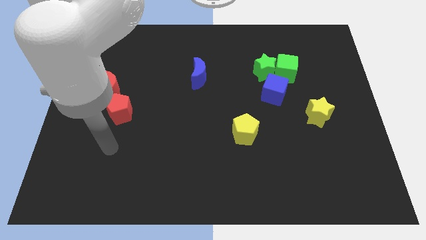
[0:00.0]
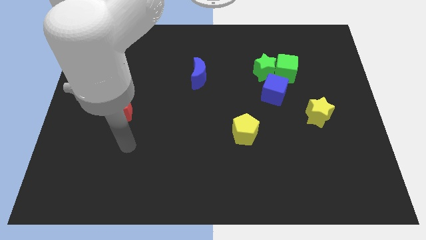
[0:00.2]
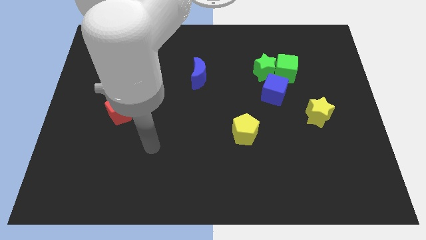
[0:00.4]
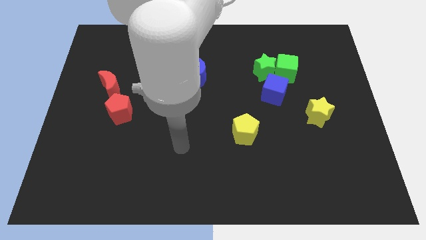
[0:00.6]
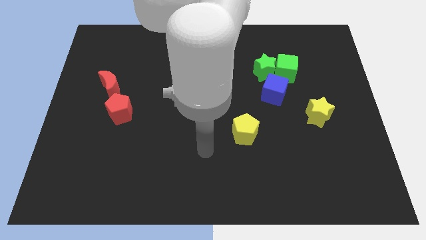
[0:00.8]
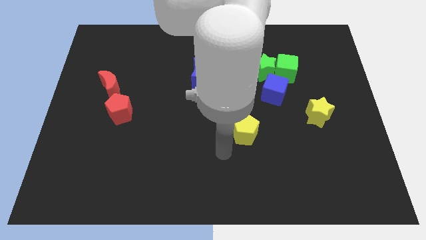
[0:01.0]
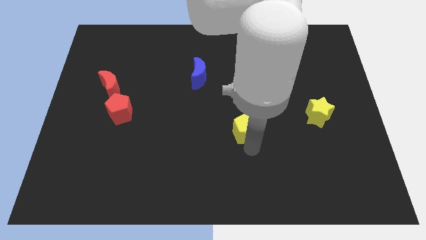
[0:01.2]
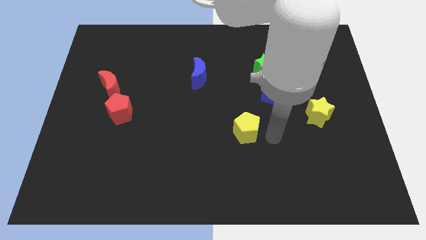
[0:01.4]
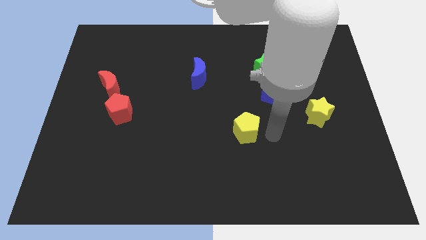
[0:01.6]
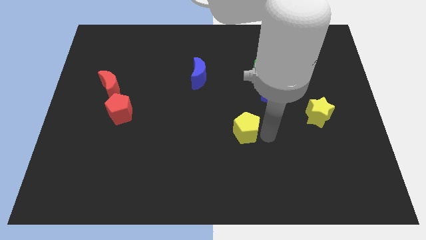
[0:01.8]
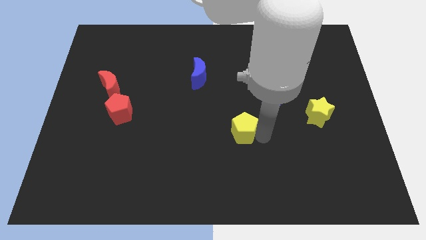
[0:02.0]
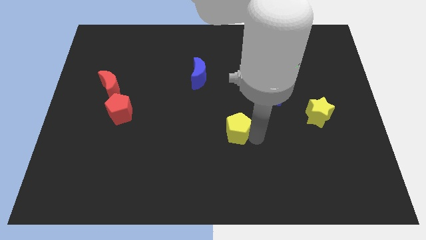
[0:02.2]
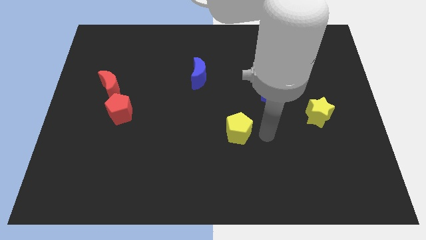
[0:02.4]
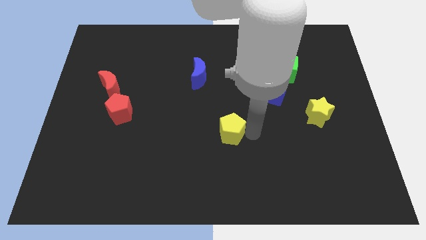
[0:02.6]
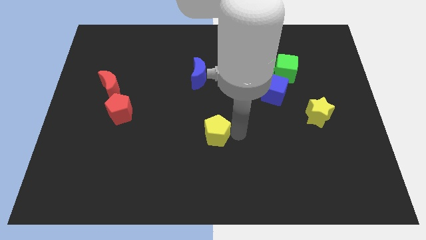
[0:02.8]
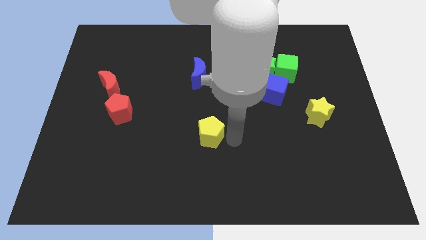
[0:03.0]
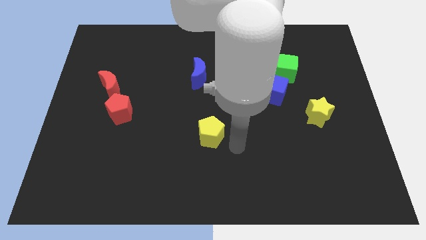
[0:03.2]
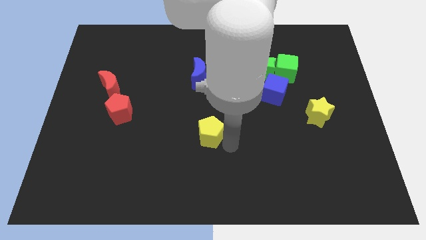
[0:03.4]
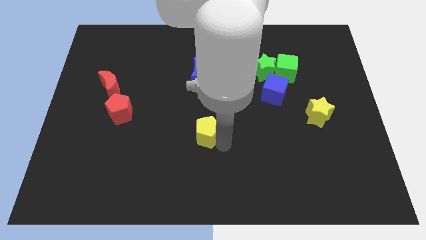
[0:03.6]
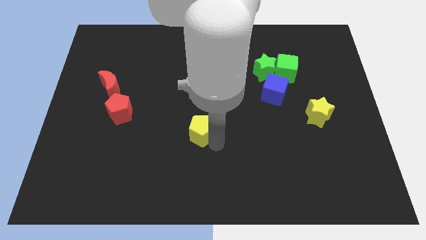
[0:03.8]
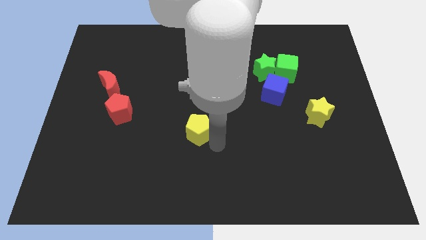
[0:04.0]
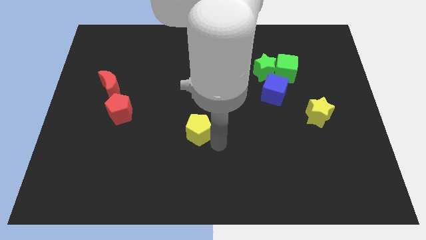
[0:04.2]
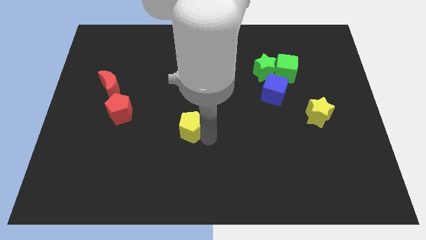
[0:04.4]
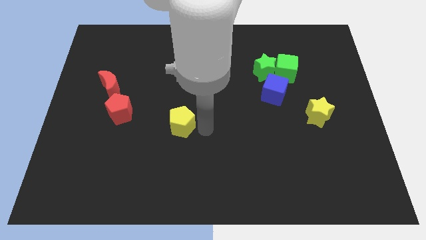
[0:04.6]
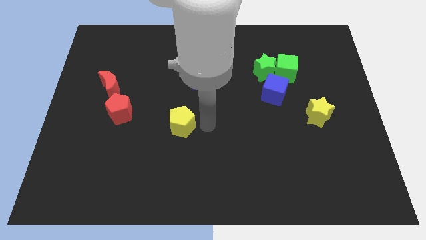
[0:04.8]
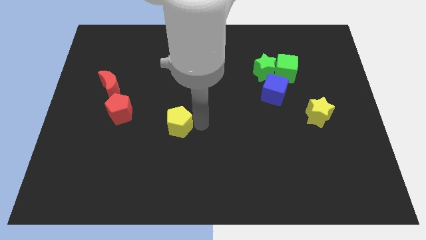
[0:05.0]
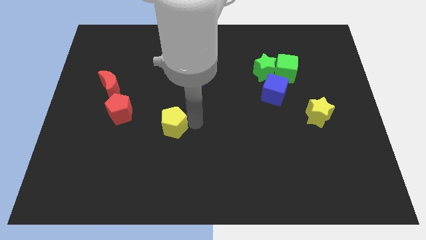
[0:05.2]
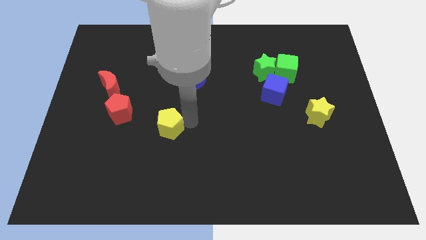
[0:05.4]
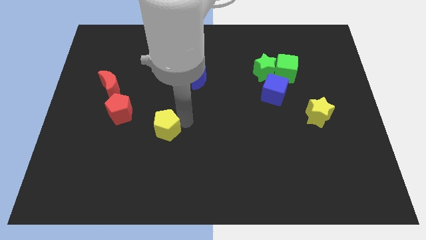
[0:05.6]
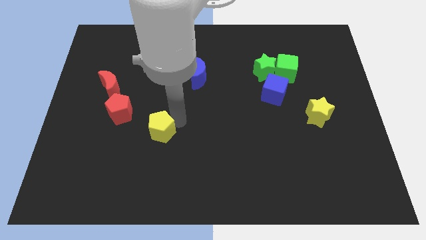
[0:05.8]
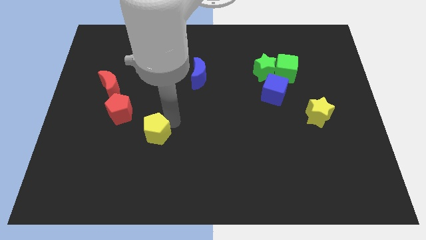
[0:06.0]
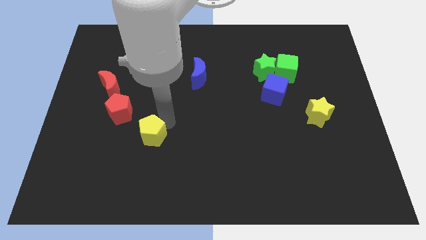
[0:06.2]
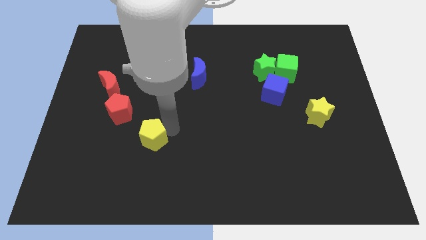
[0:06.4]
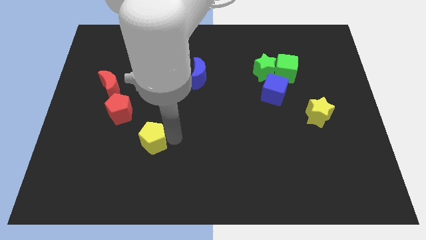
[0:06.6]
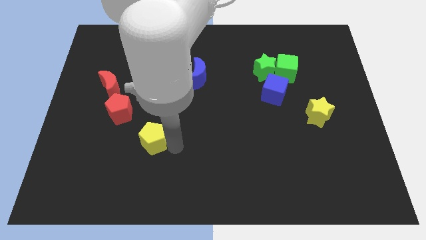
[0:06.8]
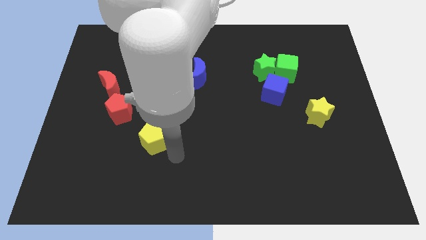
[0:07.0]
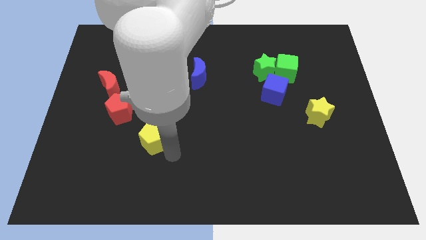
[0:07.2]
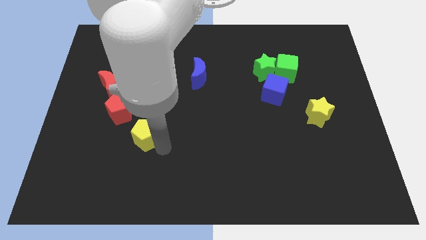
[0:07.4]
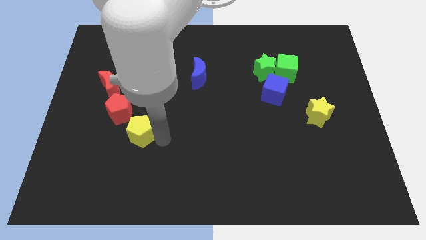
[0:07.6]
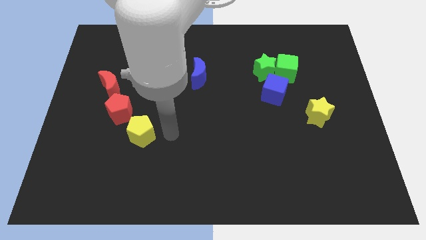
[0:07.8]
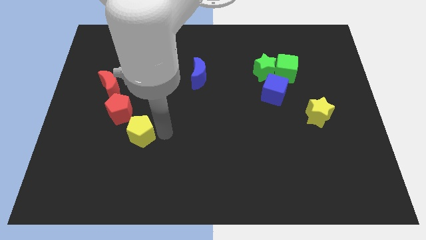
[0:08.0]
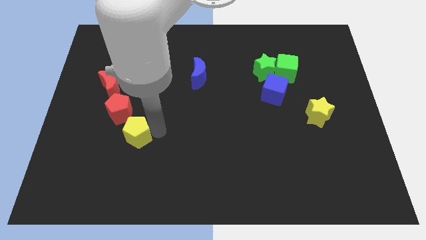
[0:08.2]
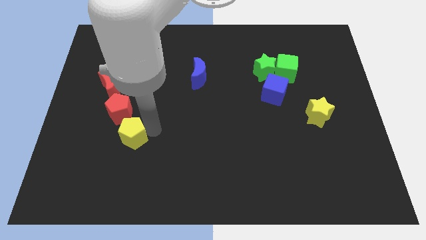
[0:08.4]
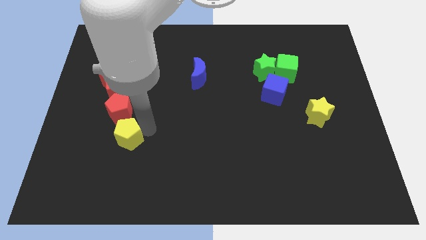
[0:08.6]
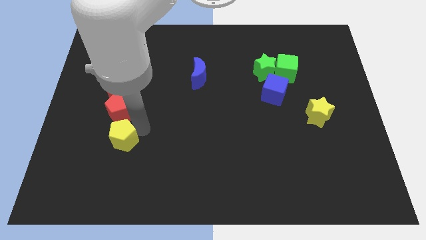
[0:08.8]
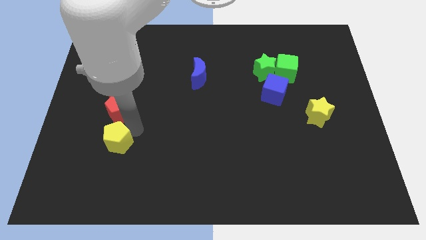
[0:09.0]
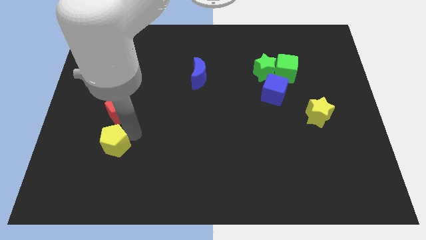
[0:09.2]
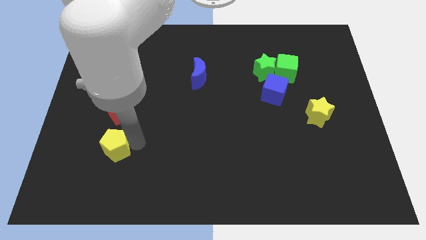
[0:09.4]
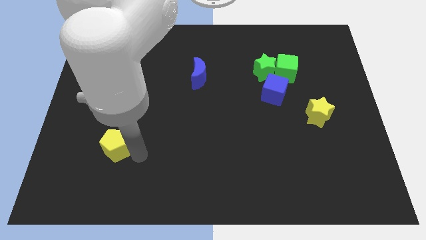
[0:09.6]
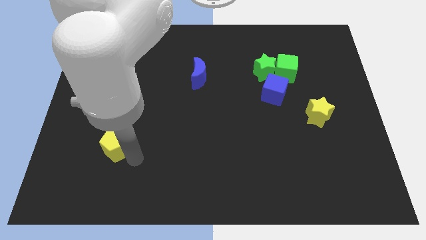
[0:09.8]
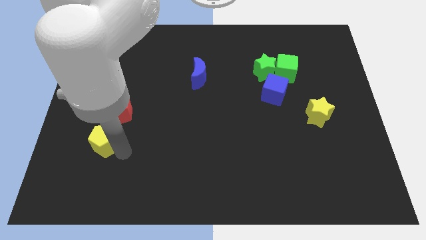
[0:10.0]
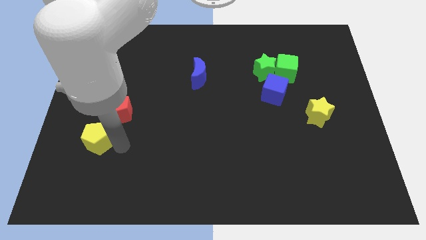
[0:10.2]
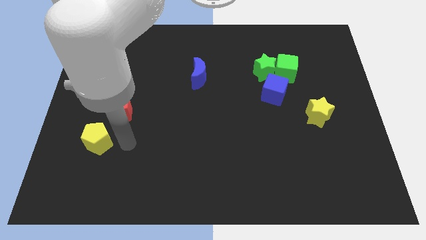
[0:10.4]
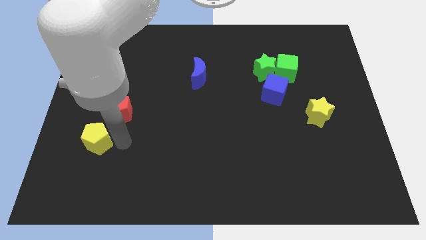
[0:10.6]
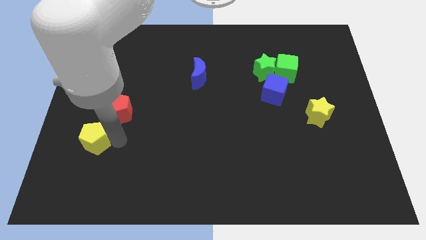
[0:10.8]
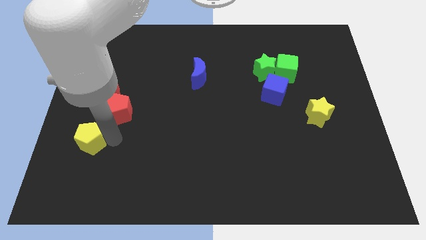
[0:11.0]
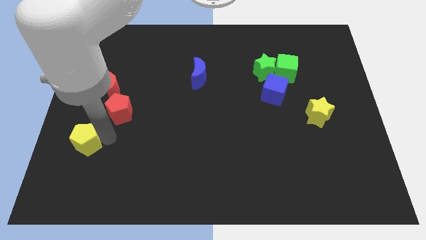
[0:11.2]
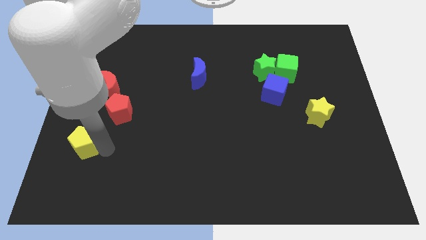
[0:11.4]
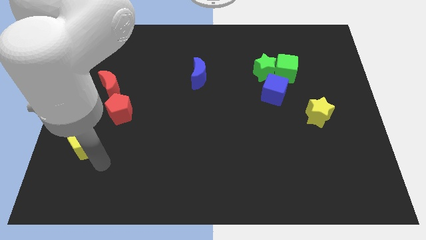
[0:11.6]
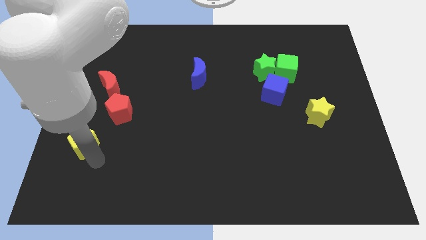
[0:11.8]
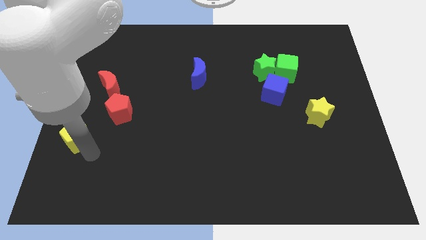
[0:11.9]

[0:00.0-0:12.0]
slide the yellow pentagon to the center left

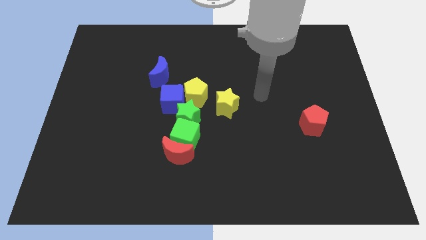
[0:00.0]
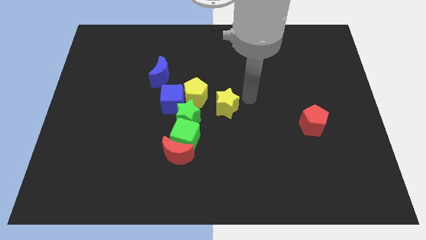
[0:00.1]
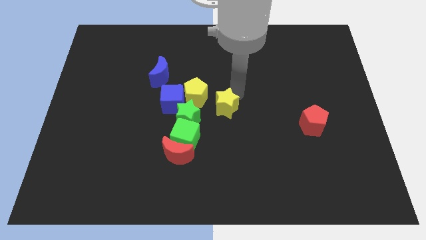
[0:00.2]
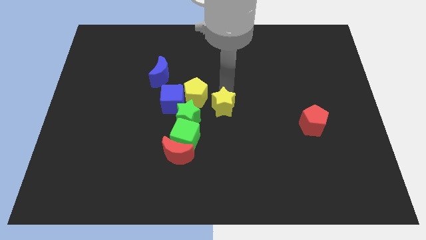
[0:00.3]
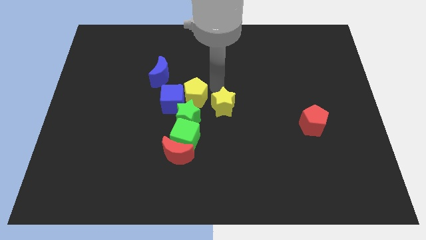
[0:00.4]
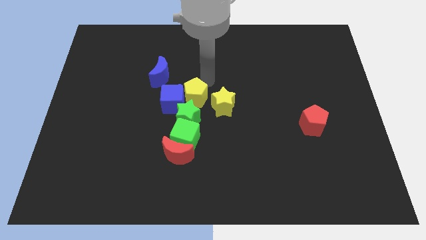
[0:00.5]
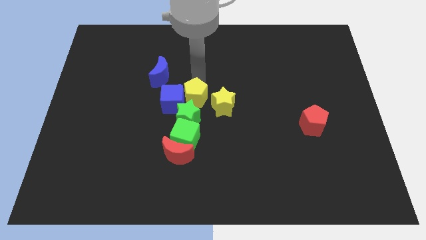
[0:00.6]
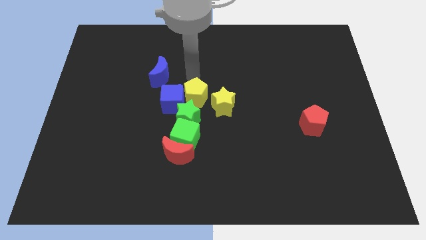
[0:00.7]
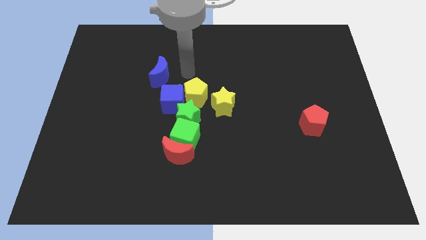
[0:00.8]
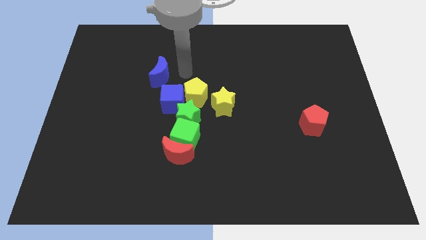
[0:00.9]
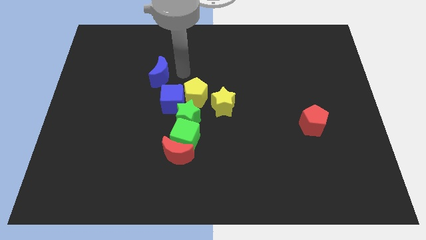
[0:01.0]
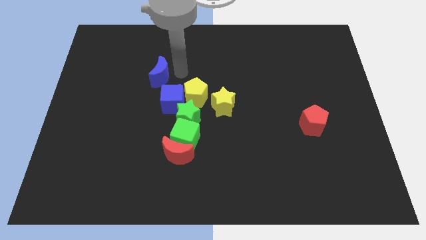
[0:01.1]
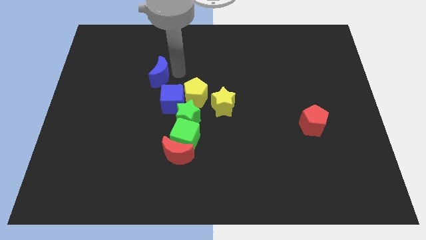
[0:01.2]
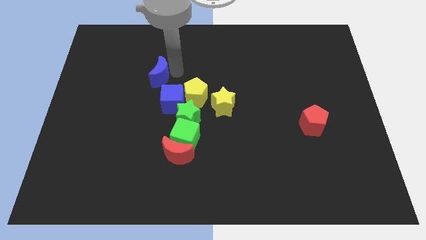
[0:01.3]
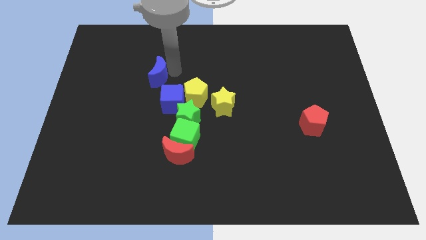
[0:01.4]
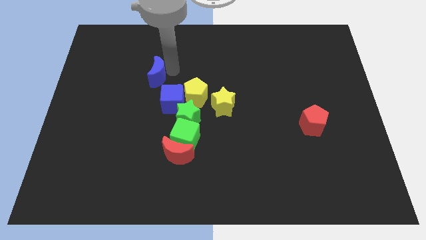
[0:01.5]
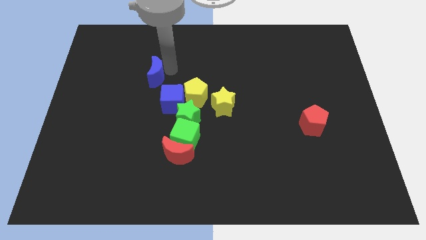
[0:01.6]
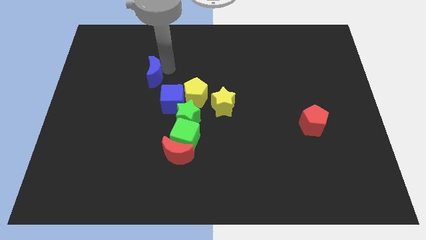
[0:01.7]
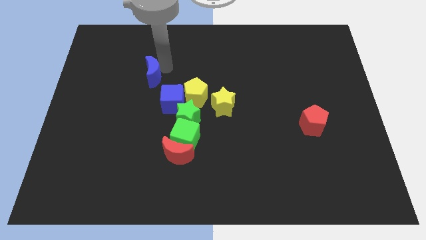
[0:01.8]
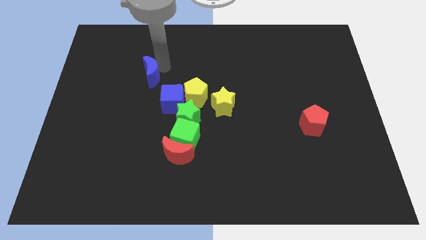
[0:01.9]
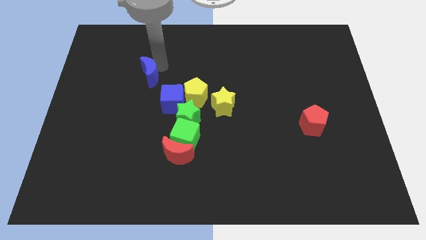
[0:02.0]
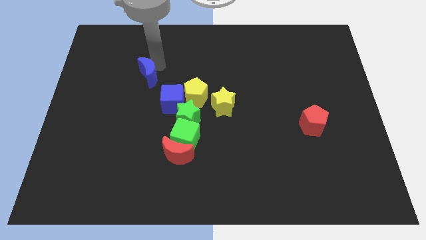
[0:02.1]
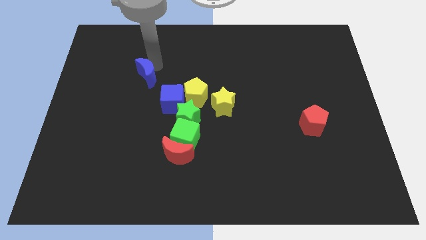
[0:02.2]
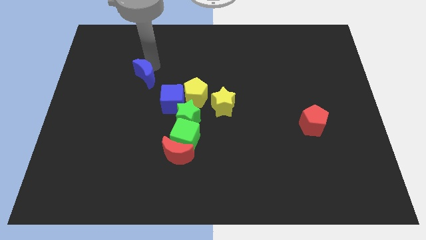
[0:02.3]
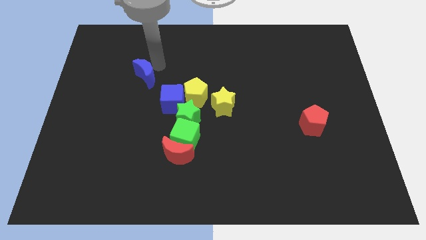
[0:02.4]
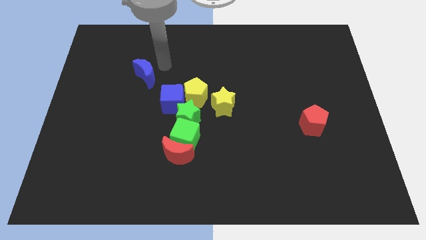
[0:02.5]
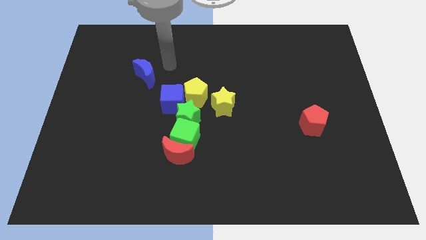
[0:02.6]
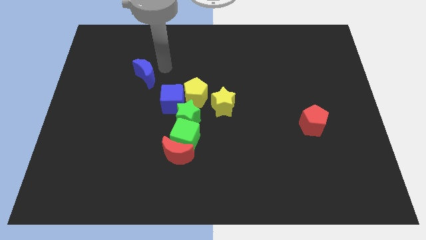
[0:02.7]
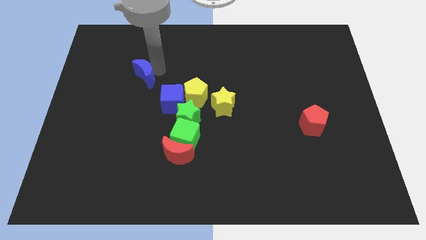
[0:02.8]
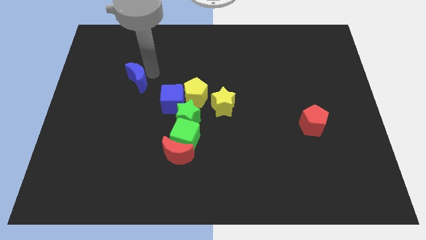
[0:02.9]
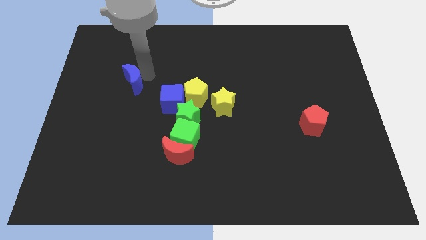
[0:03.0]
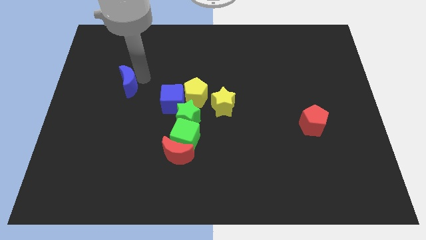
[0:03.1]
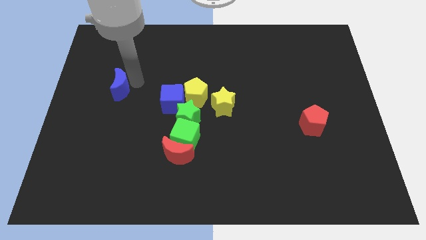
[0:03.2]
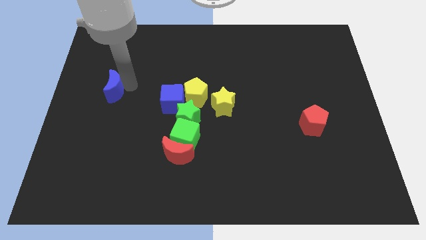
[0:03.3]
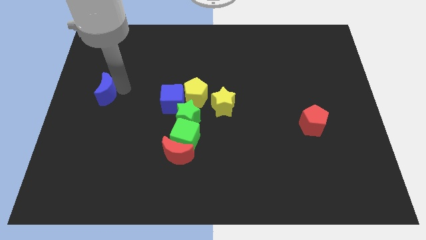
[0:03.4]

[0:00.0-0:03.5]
push the blue moon to the left side of the board
